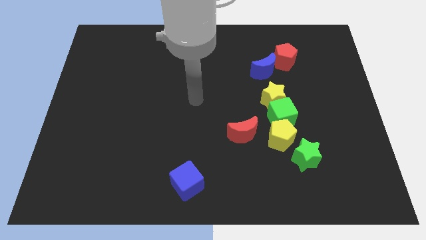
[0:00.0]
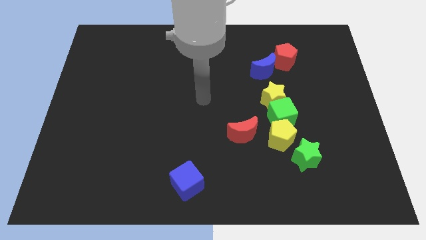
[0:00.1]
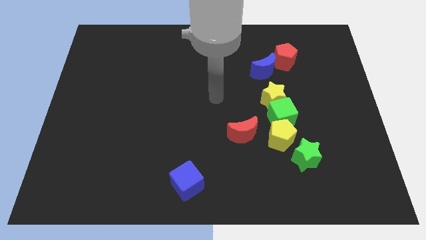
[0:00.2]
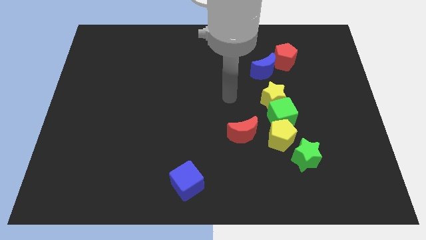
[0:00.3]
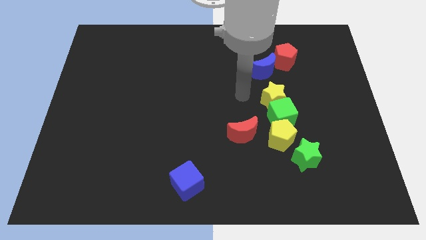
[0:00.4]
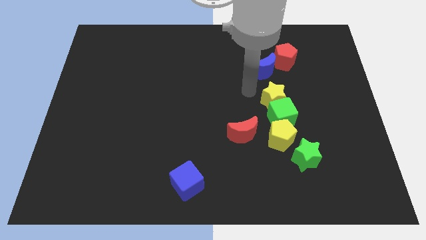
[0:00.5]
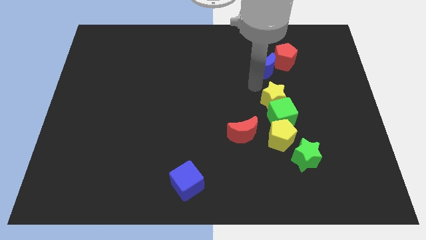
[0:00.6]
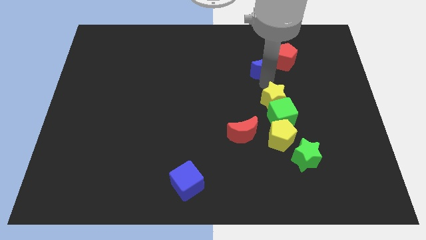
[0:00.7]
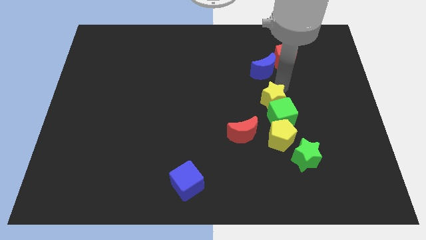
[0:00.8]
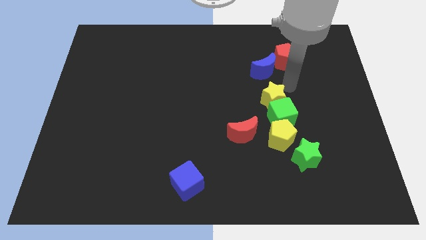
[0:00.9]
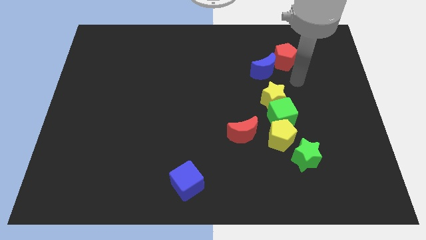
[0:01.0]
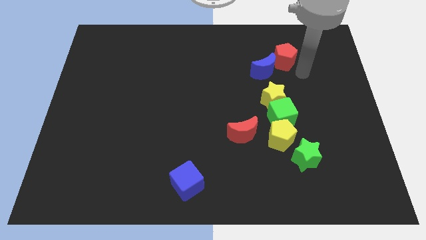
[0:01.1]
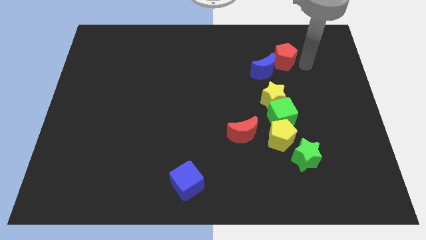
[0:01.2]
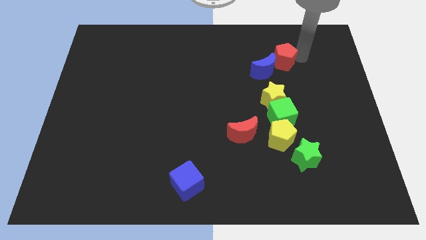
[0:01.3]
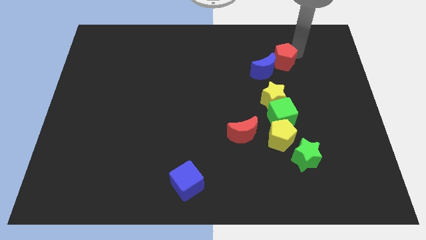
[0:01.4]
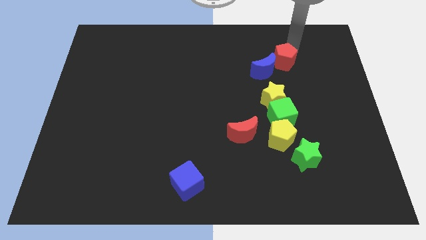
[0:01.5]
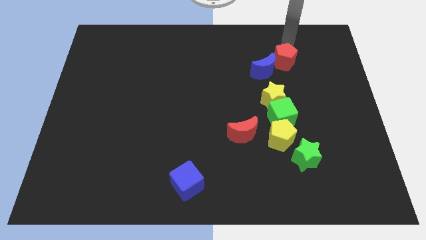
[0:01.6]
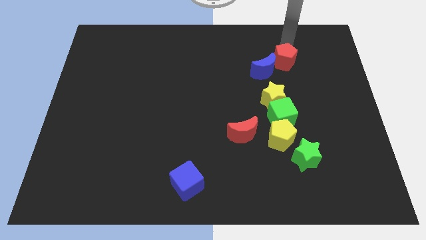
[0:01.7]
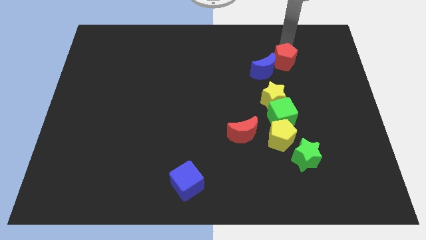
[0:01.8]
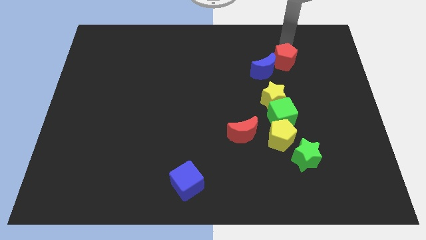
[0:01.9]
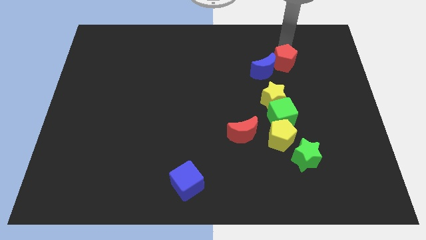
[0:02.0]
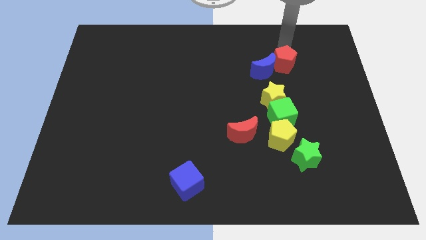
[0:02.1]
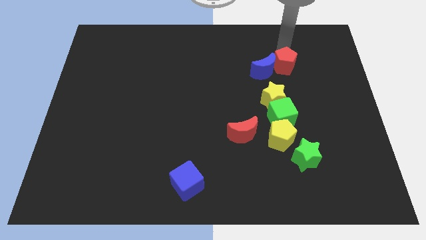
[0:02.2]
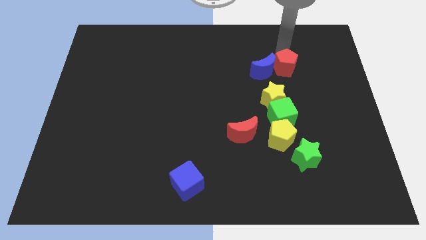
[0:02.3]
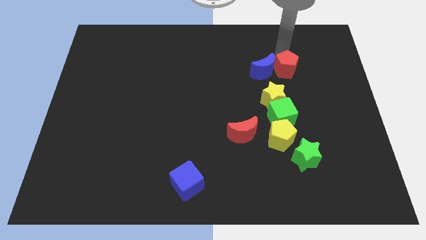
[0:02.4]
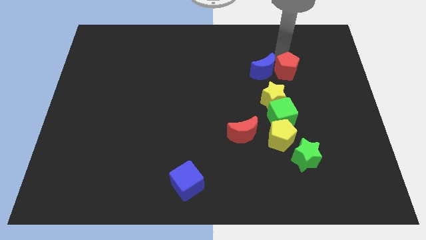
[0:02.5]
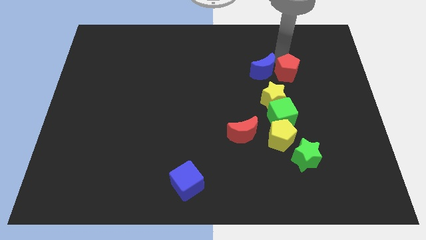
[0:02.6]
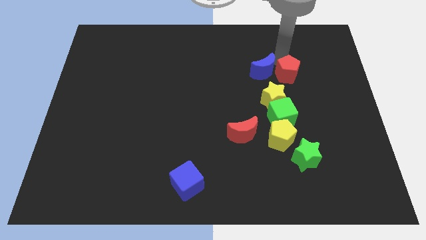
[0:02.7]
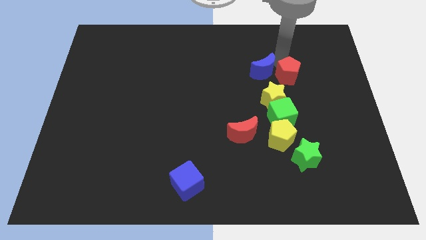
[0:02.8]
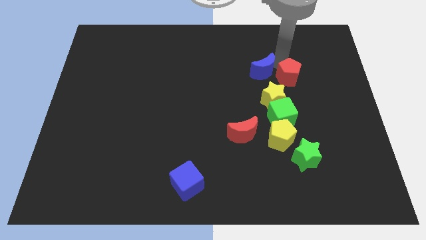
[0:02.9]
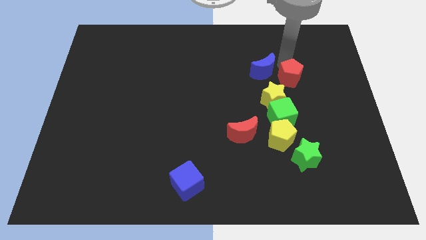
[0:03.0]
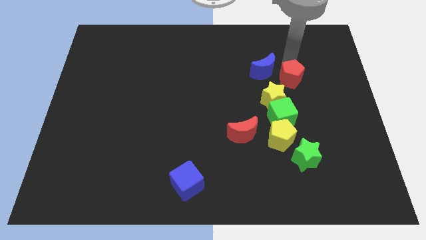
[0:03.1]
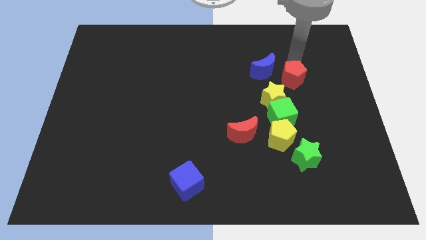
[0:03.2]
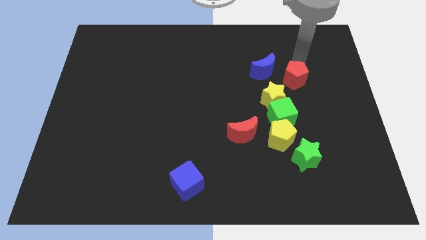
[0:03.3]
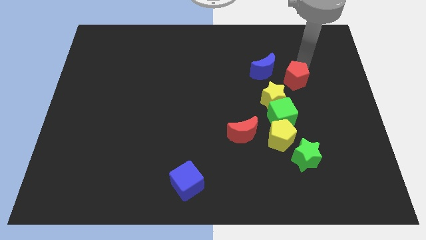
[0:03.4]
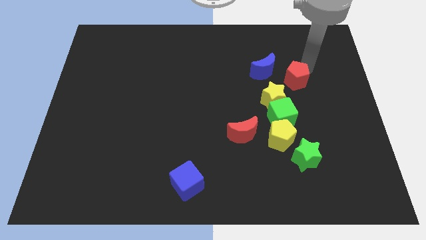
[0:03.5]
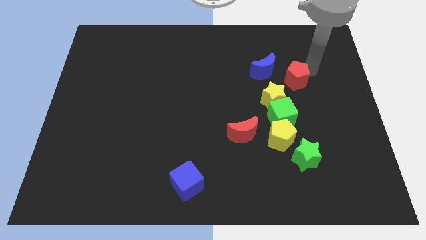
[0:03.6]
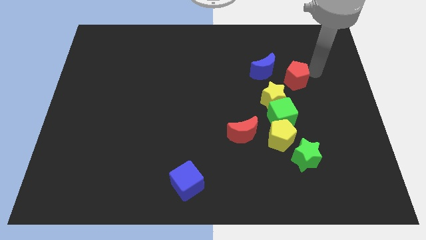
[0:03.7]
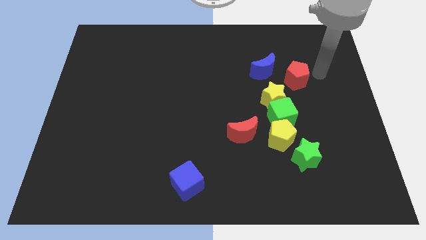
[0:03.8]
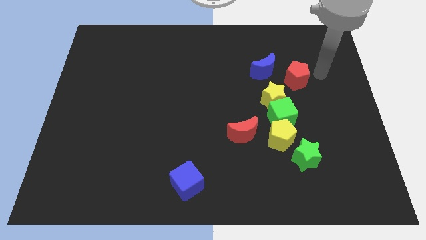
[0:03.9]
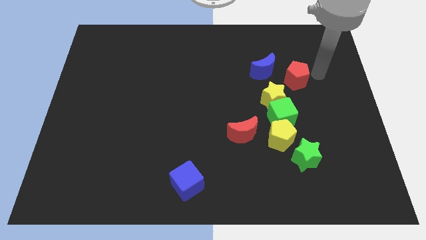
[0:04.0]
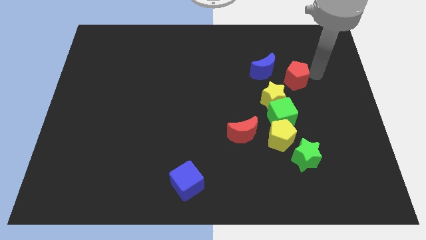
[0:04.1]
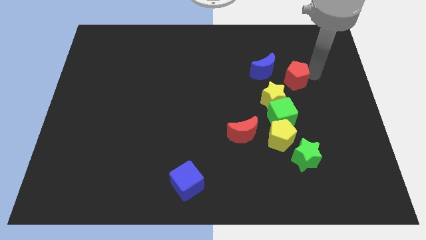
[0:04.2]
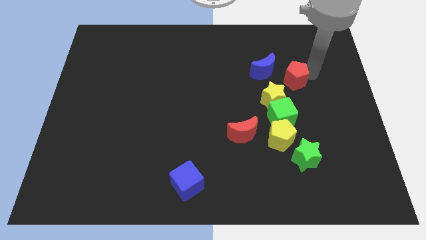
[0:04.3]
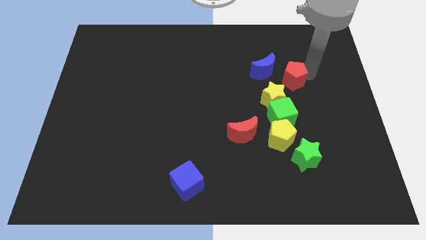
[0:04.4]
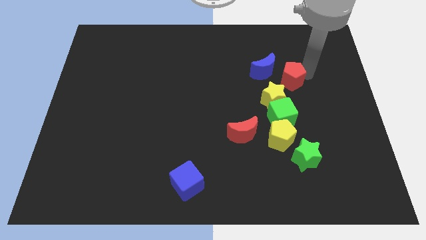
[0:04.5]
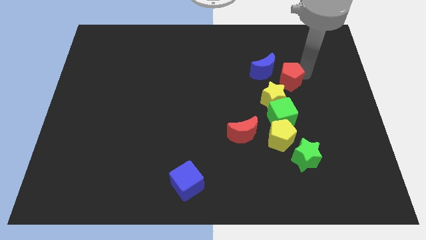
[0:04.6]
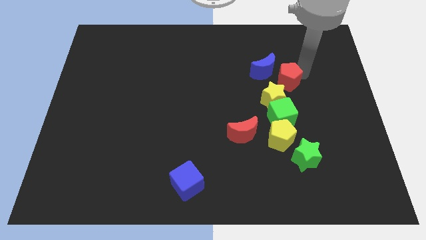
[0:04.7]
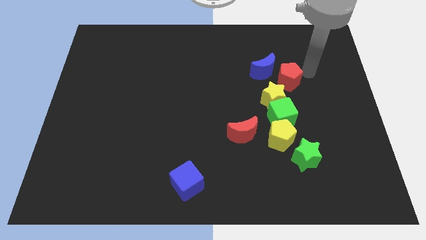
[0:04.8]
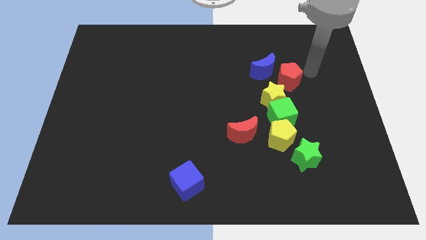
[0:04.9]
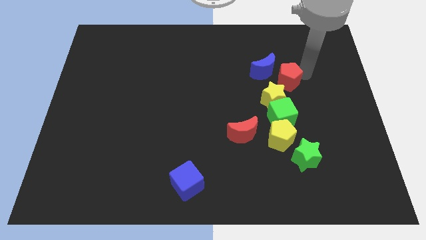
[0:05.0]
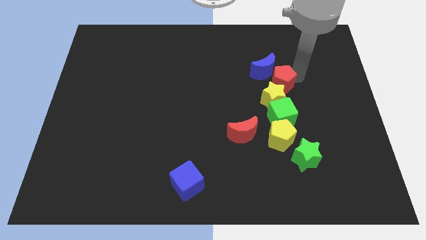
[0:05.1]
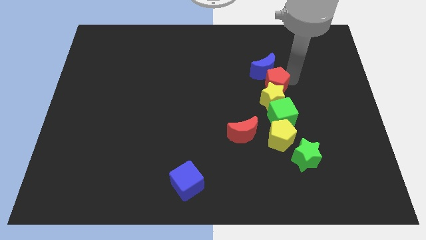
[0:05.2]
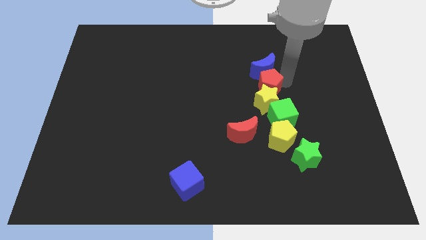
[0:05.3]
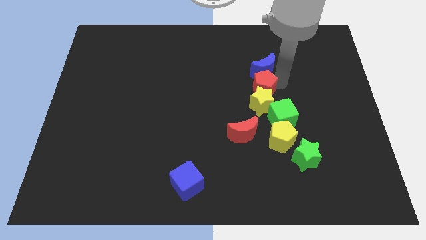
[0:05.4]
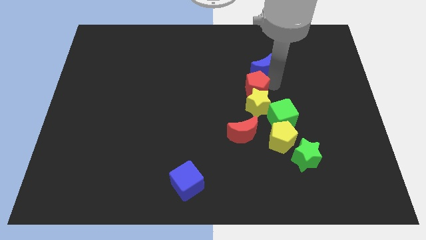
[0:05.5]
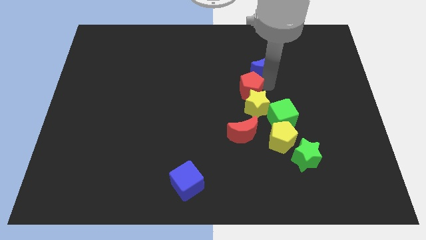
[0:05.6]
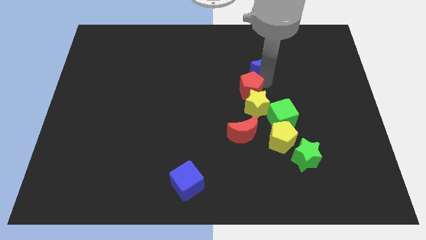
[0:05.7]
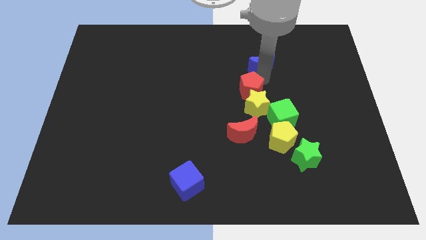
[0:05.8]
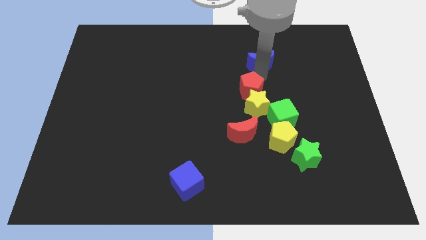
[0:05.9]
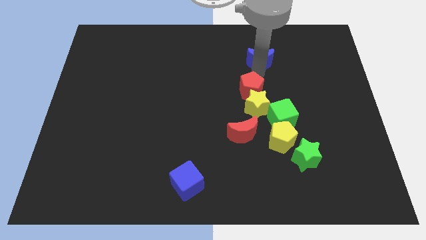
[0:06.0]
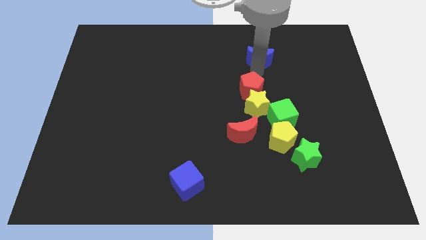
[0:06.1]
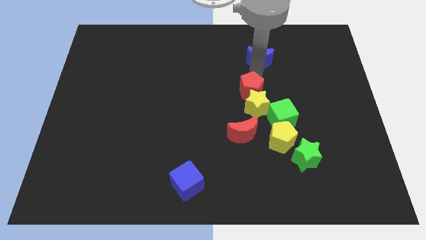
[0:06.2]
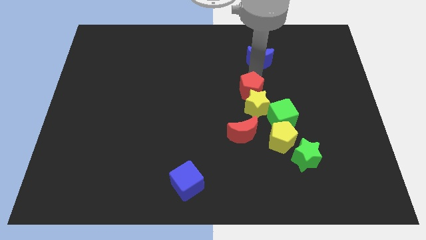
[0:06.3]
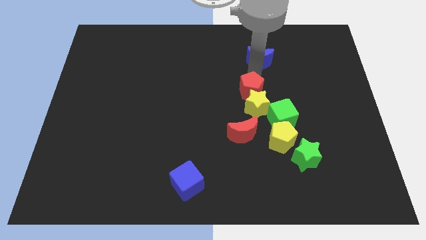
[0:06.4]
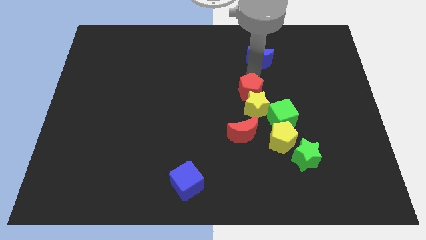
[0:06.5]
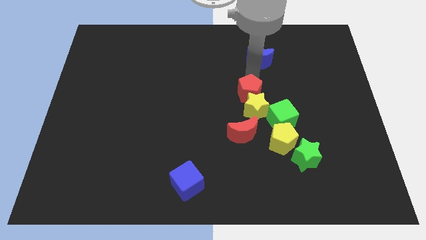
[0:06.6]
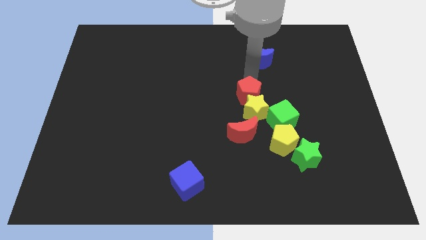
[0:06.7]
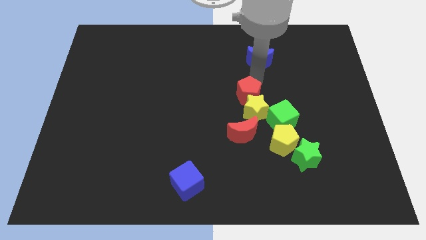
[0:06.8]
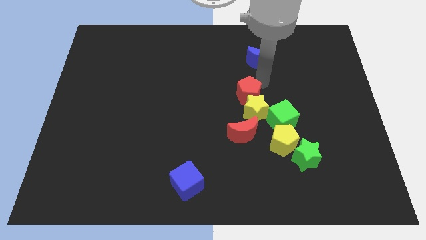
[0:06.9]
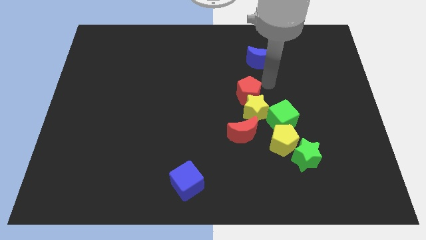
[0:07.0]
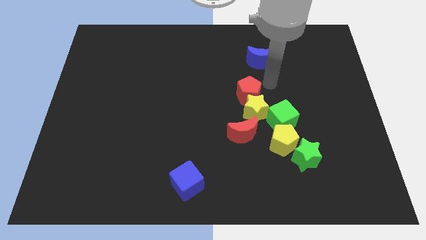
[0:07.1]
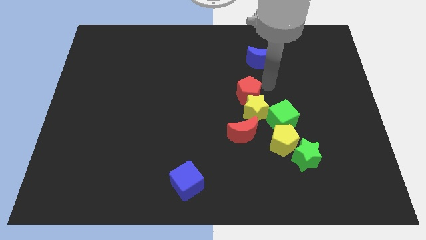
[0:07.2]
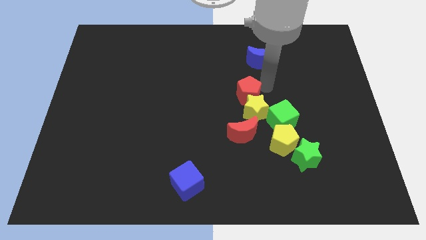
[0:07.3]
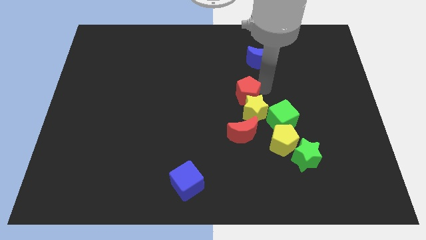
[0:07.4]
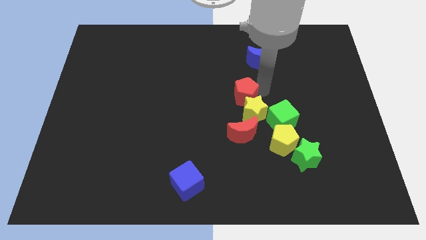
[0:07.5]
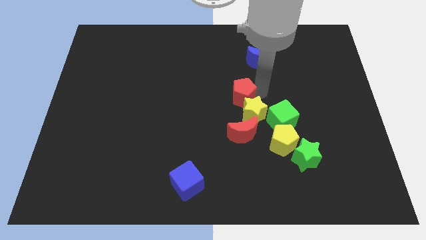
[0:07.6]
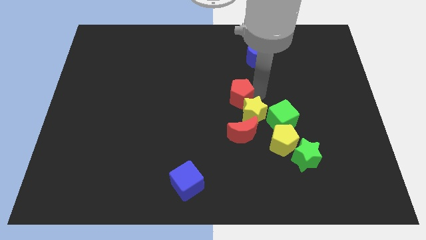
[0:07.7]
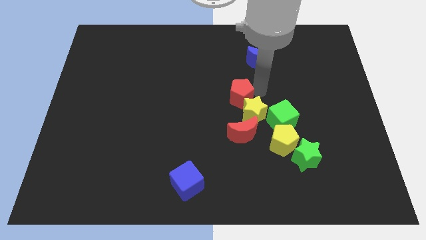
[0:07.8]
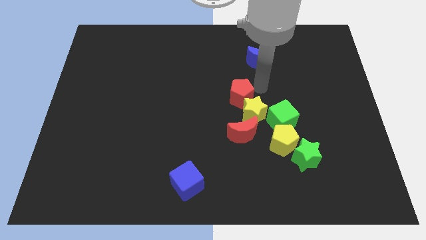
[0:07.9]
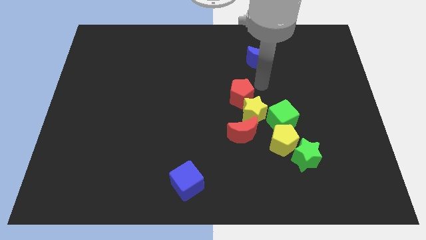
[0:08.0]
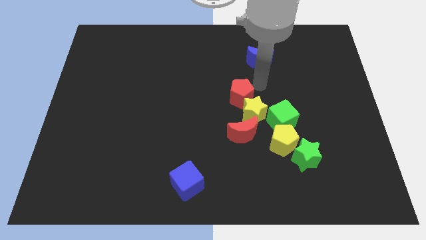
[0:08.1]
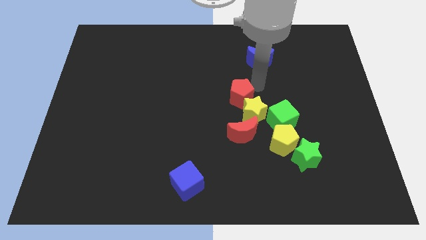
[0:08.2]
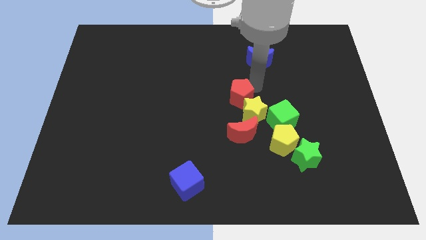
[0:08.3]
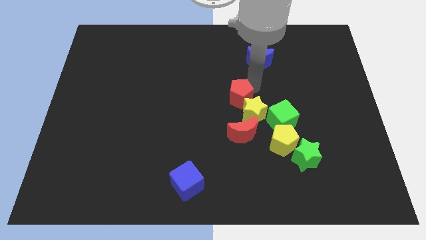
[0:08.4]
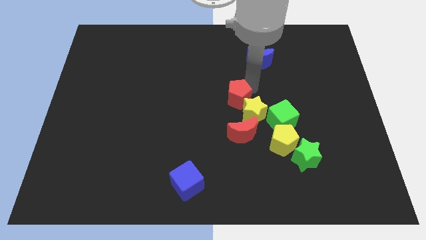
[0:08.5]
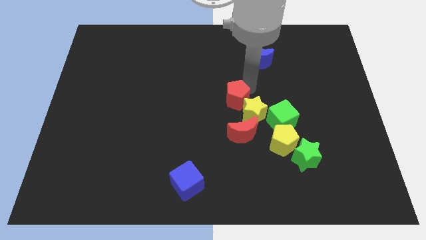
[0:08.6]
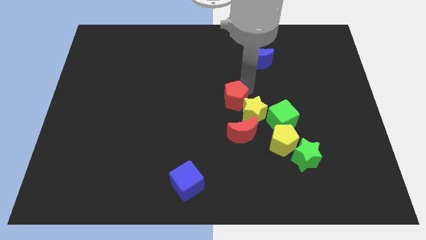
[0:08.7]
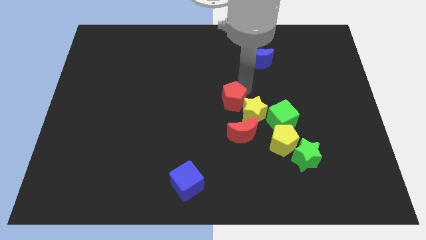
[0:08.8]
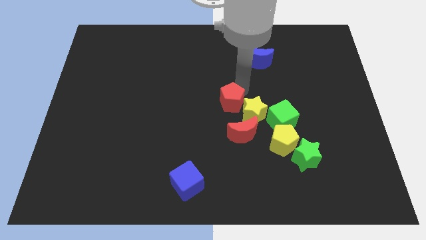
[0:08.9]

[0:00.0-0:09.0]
push the red pentagon down and left diagonally
